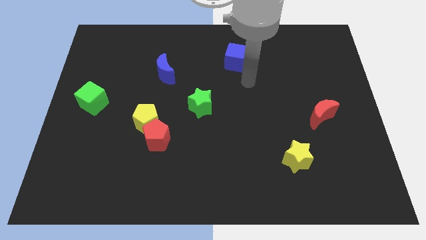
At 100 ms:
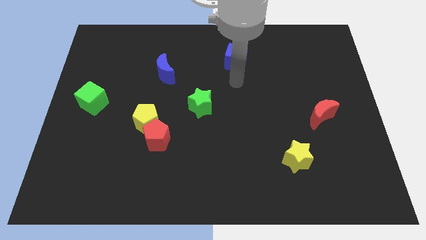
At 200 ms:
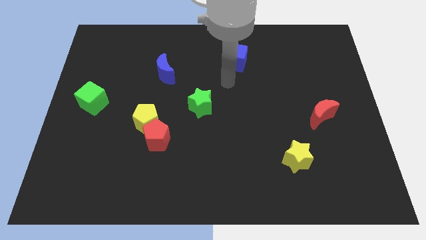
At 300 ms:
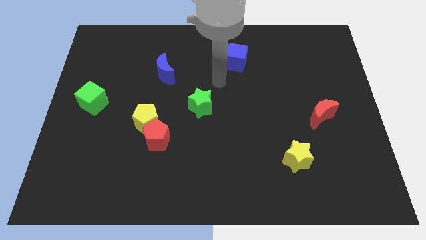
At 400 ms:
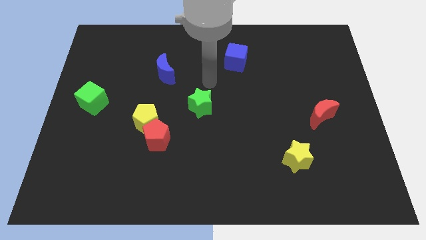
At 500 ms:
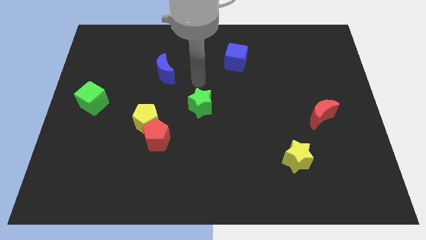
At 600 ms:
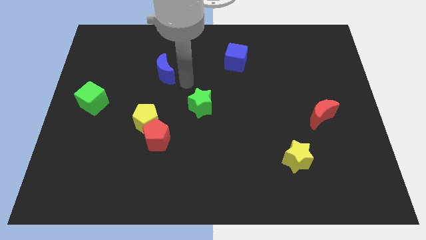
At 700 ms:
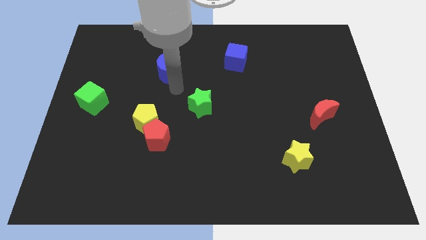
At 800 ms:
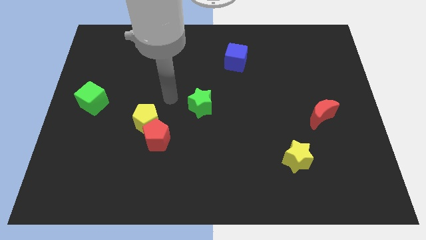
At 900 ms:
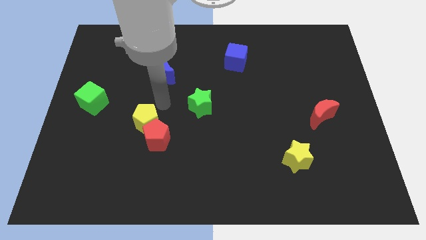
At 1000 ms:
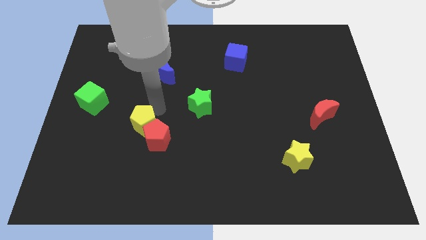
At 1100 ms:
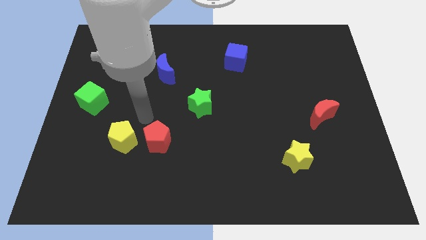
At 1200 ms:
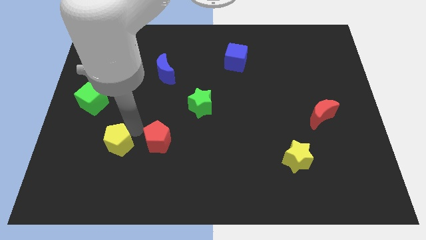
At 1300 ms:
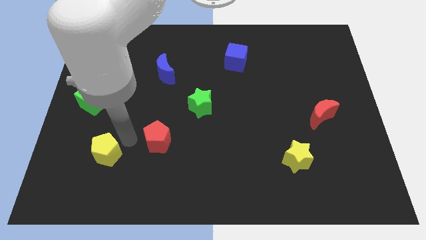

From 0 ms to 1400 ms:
separate the red pentagon from the yellow pentagon

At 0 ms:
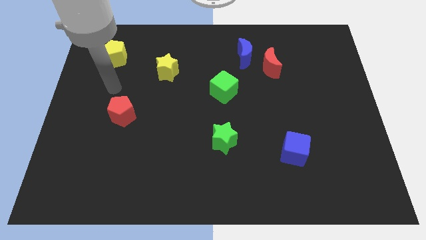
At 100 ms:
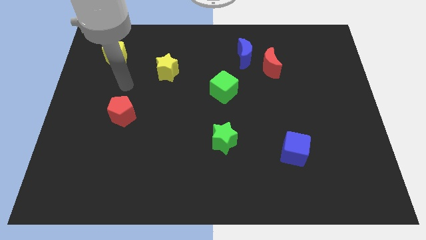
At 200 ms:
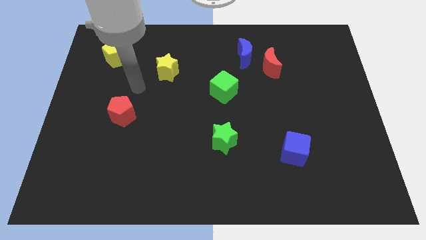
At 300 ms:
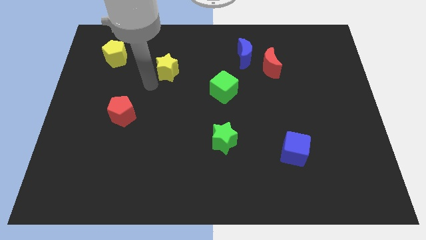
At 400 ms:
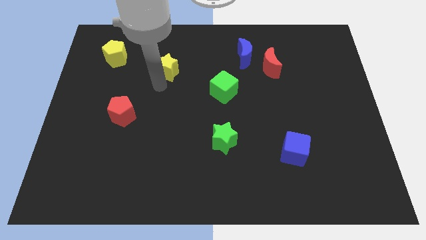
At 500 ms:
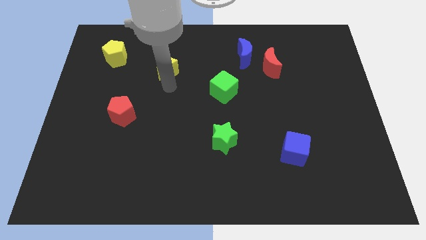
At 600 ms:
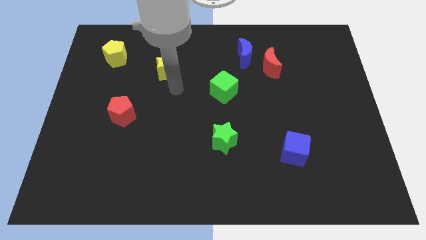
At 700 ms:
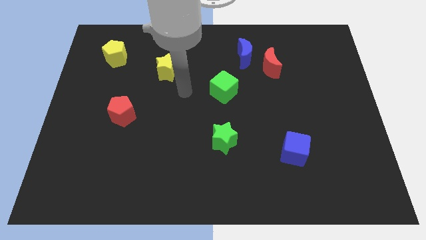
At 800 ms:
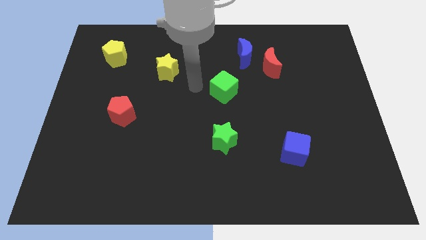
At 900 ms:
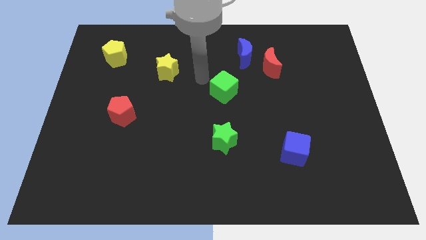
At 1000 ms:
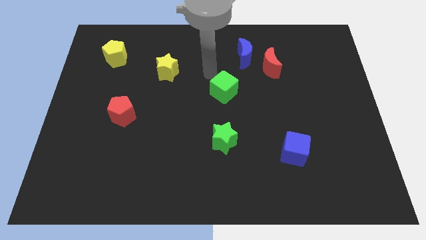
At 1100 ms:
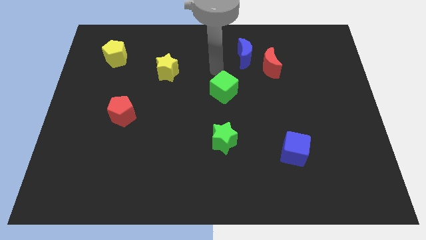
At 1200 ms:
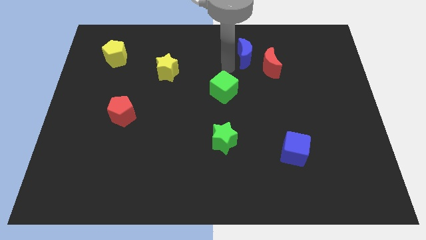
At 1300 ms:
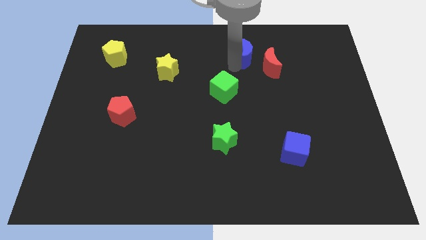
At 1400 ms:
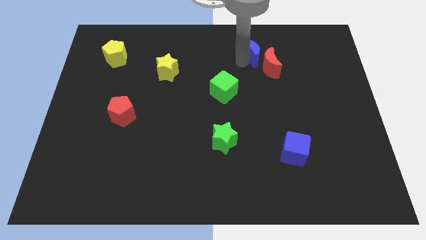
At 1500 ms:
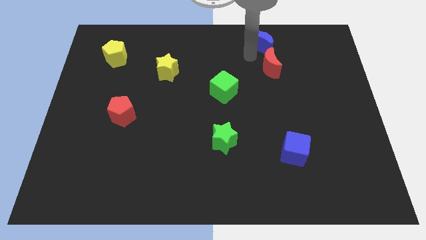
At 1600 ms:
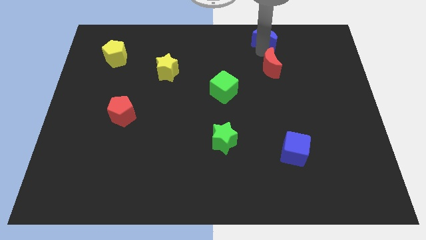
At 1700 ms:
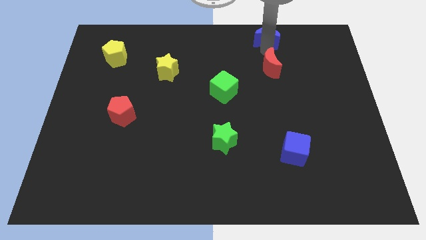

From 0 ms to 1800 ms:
move the red moon away from the blue moon

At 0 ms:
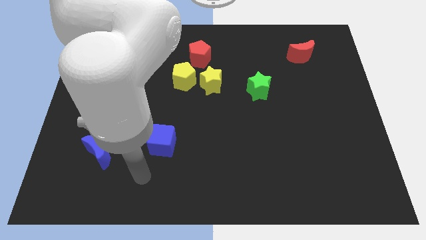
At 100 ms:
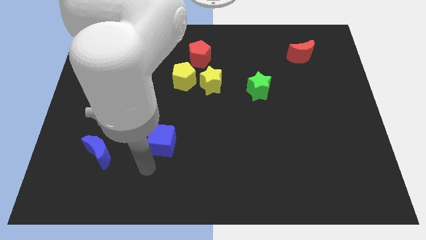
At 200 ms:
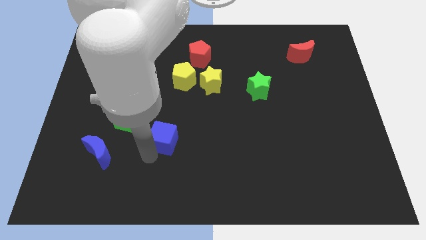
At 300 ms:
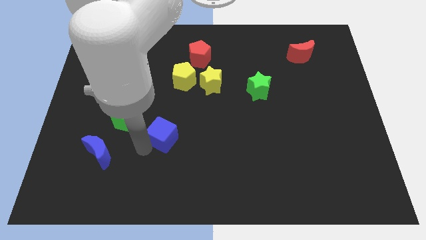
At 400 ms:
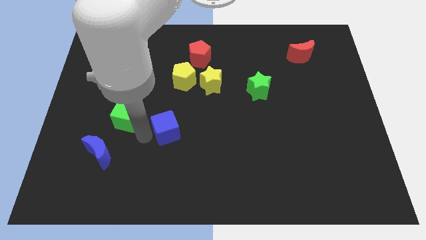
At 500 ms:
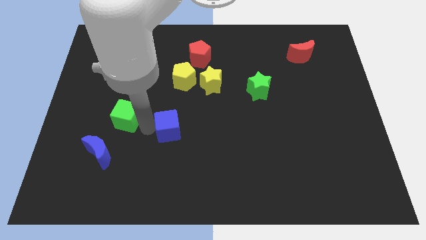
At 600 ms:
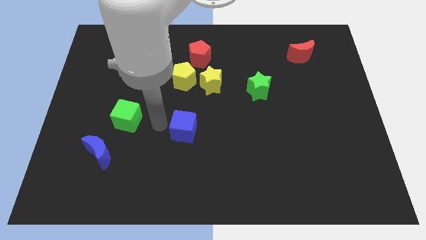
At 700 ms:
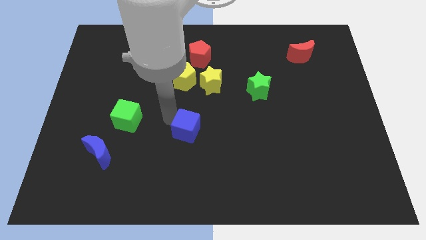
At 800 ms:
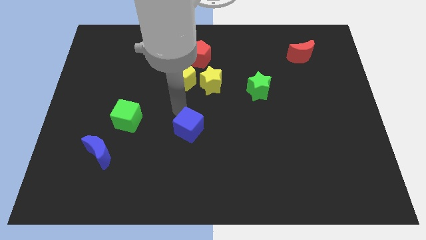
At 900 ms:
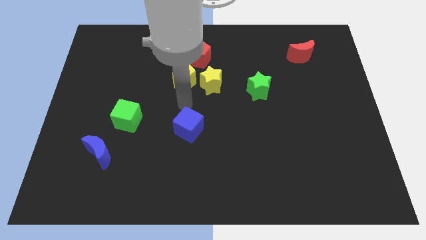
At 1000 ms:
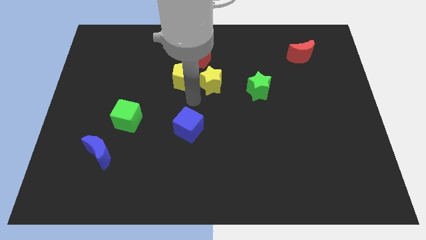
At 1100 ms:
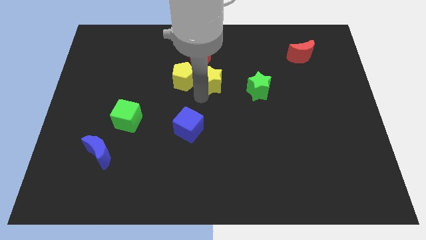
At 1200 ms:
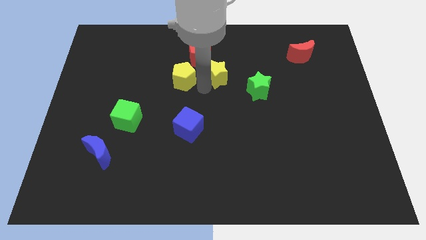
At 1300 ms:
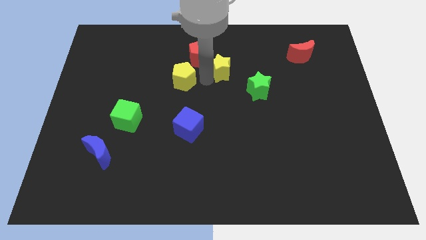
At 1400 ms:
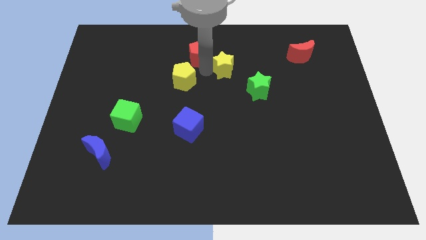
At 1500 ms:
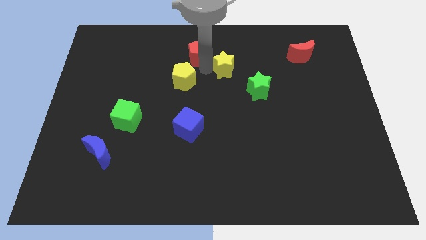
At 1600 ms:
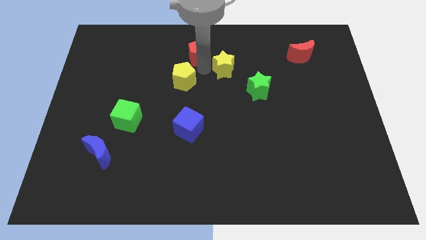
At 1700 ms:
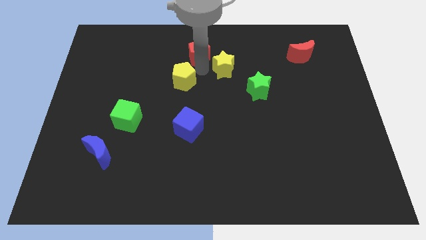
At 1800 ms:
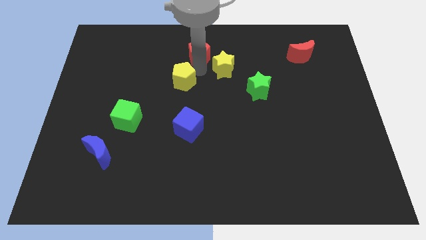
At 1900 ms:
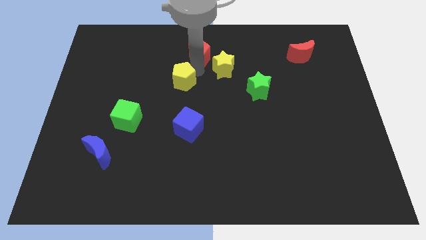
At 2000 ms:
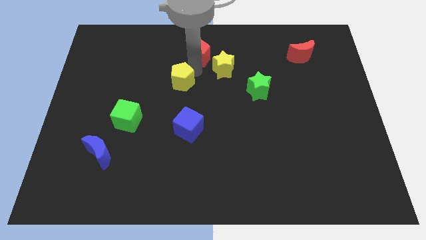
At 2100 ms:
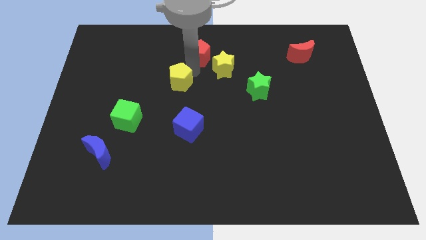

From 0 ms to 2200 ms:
pull the yellow pentagon apart from the yellow star and red pentagon

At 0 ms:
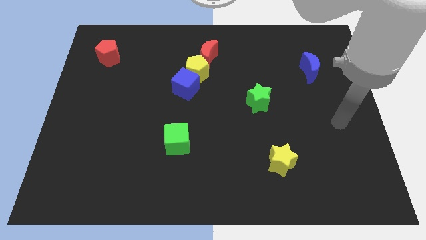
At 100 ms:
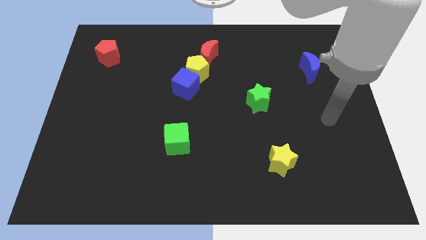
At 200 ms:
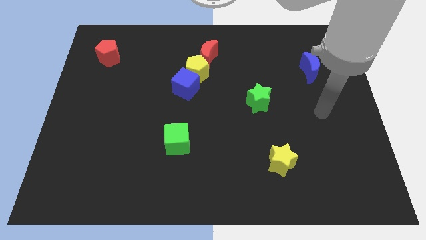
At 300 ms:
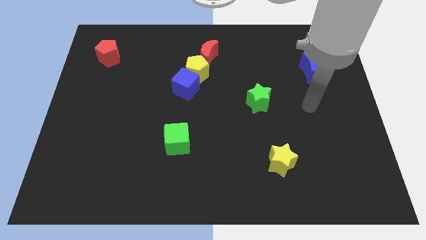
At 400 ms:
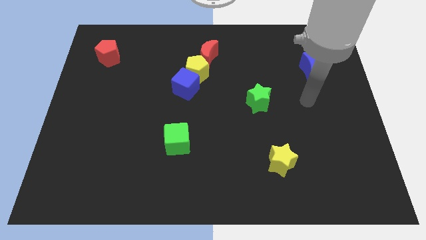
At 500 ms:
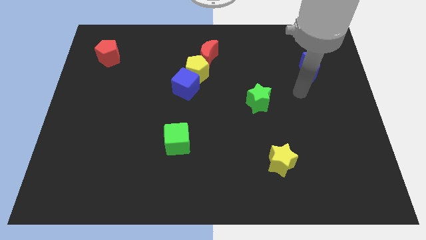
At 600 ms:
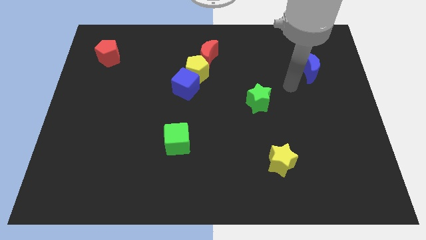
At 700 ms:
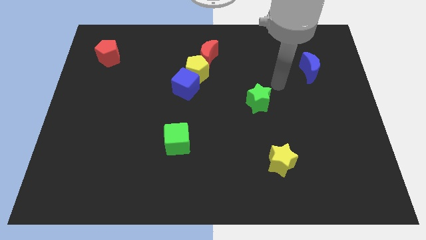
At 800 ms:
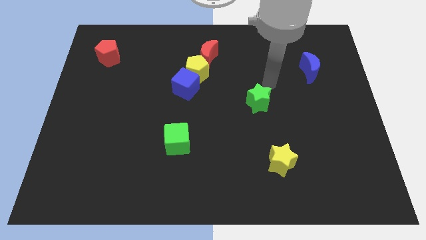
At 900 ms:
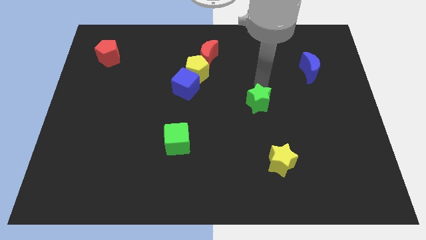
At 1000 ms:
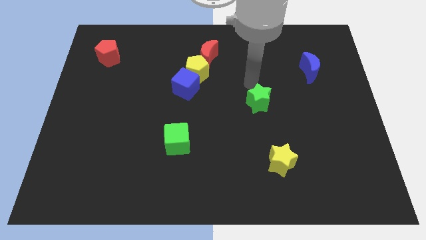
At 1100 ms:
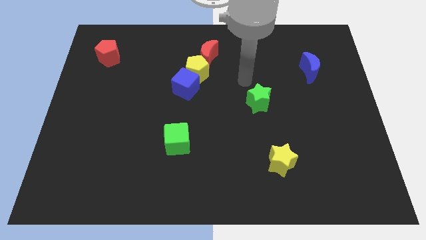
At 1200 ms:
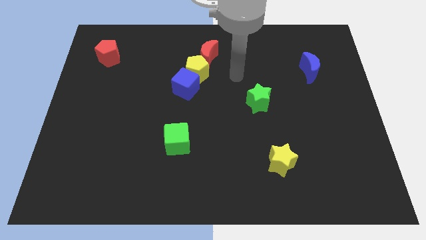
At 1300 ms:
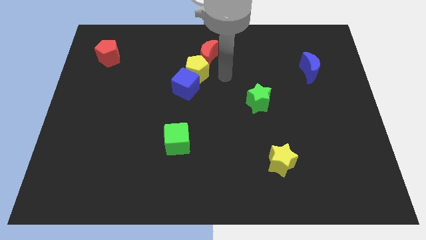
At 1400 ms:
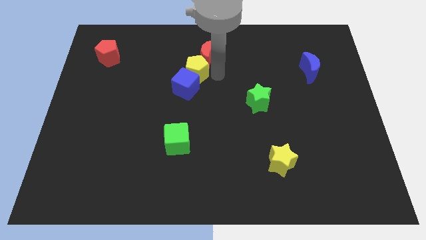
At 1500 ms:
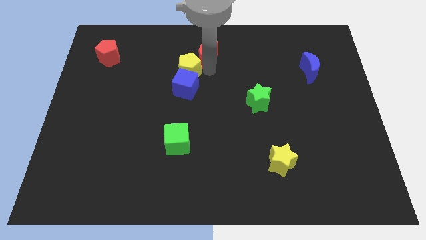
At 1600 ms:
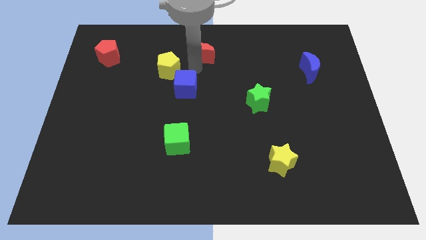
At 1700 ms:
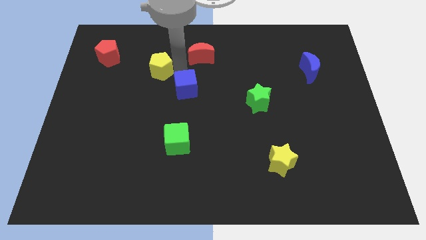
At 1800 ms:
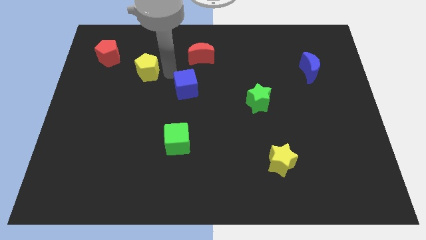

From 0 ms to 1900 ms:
separate the blue cube from the yellow pentagon

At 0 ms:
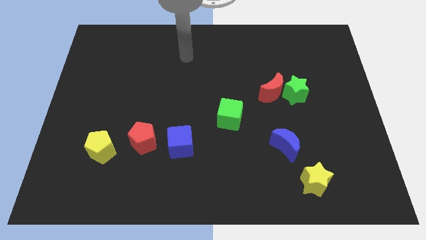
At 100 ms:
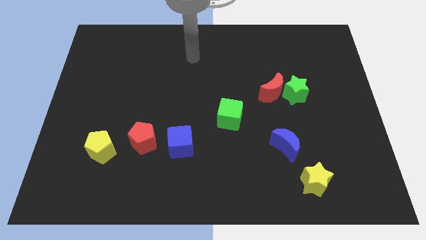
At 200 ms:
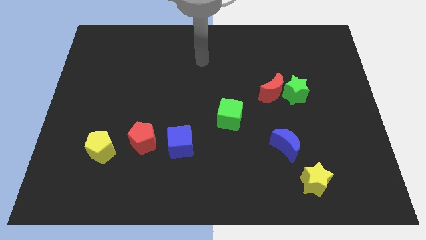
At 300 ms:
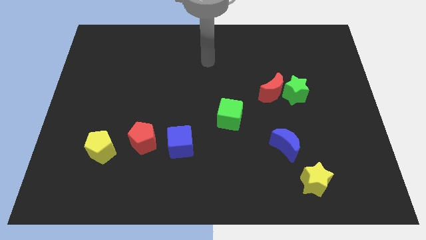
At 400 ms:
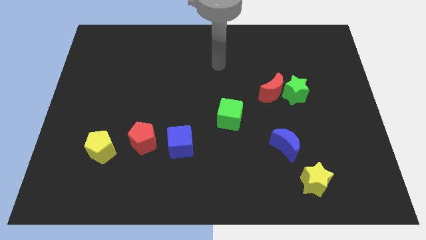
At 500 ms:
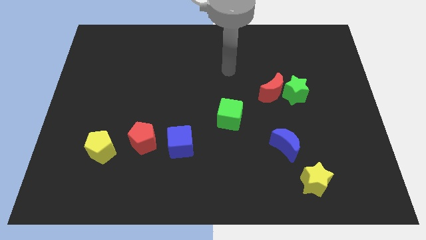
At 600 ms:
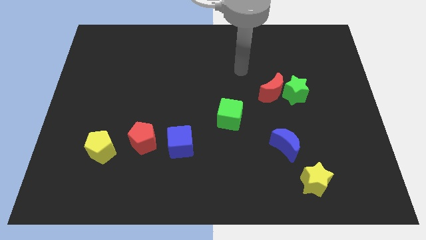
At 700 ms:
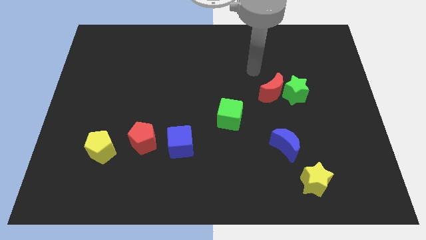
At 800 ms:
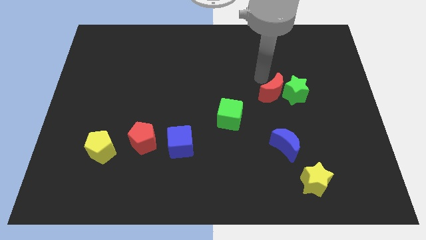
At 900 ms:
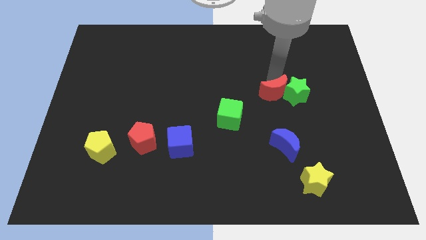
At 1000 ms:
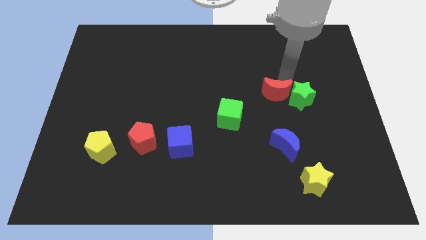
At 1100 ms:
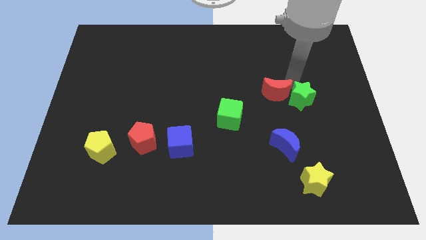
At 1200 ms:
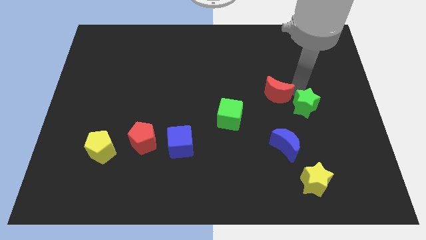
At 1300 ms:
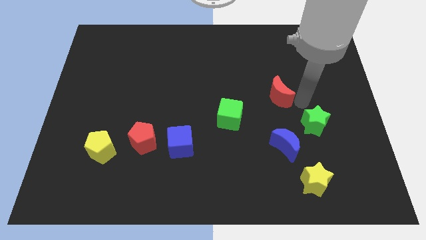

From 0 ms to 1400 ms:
separate the red moon from the green star

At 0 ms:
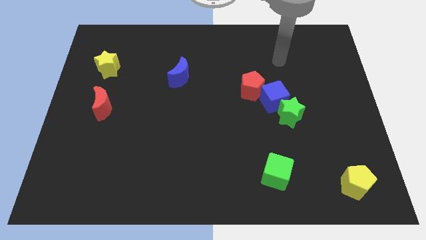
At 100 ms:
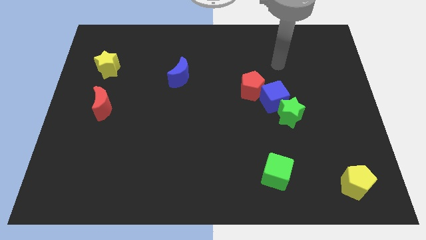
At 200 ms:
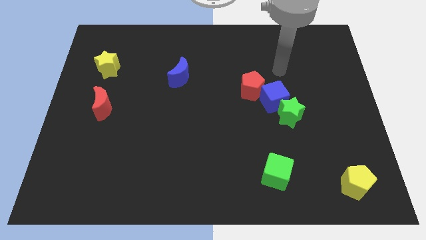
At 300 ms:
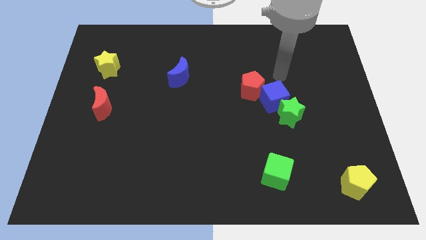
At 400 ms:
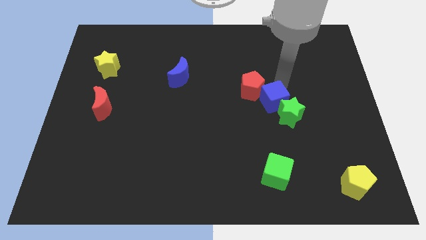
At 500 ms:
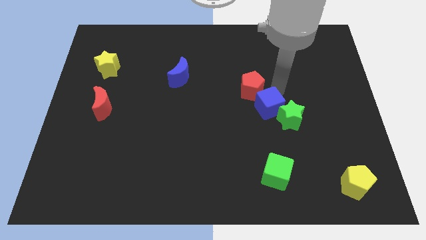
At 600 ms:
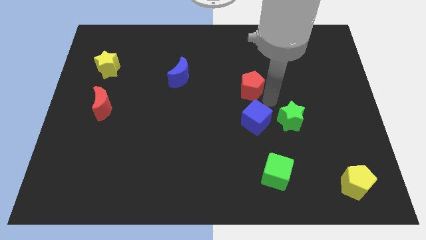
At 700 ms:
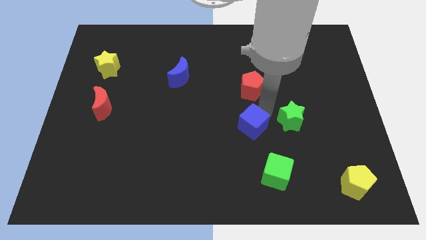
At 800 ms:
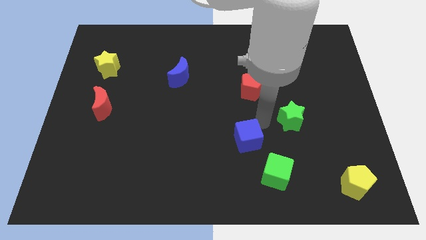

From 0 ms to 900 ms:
separate the green star from the blue cube
